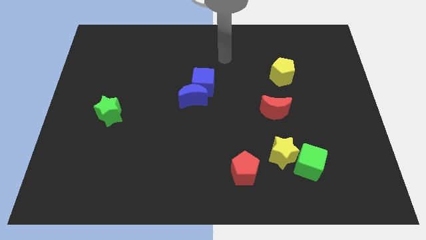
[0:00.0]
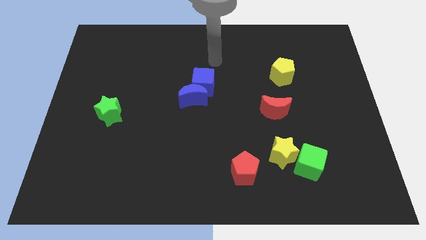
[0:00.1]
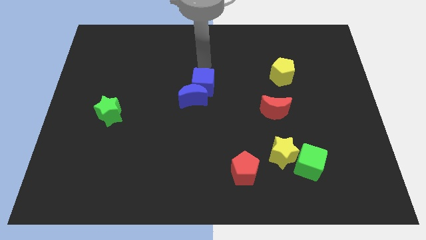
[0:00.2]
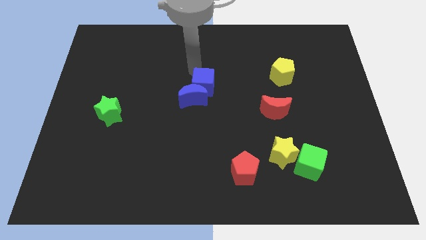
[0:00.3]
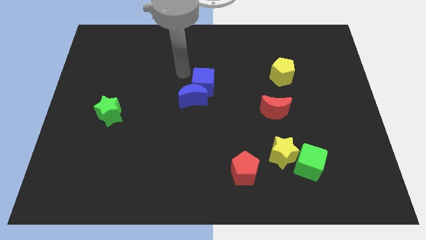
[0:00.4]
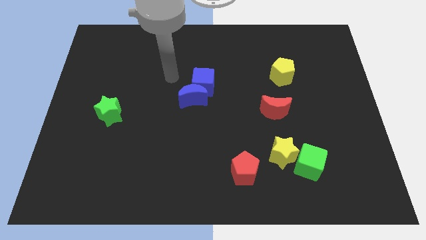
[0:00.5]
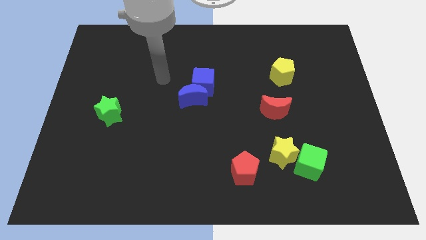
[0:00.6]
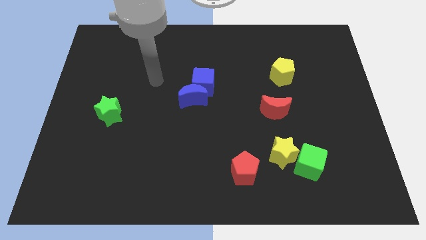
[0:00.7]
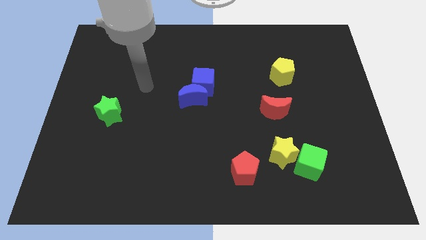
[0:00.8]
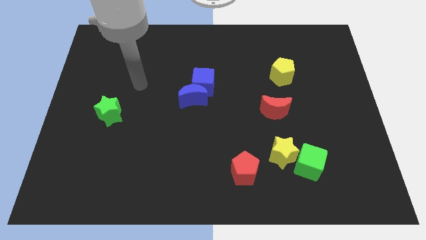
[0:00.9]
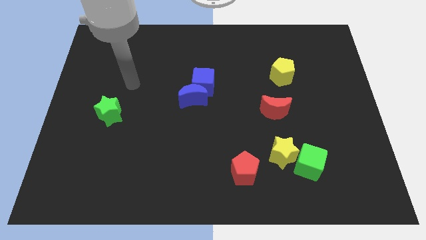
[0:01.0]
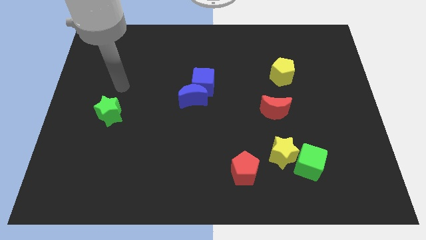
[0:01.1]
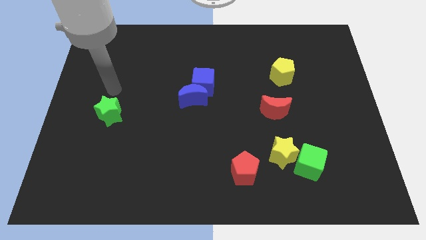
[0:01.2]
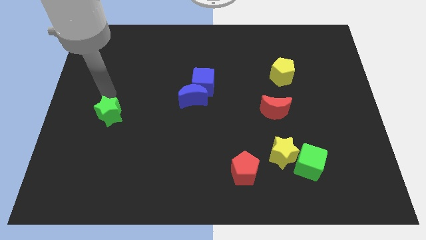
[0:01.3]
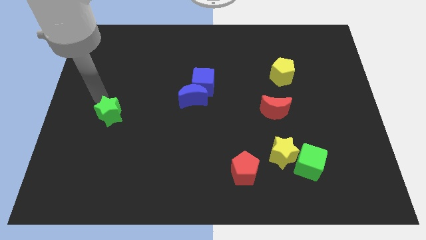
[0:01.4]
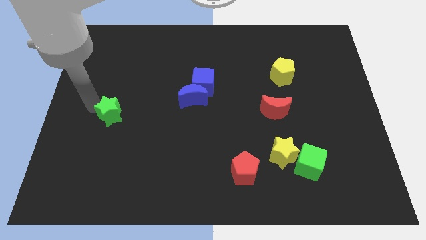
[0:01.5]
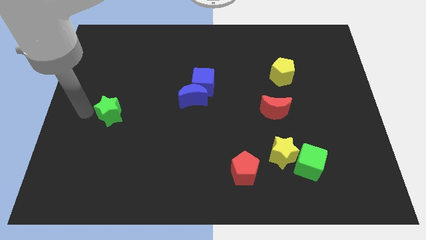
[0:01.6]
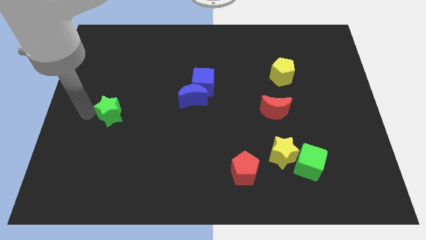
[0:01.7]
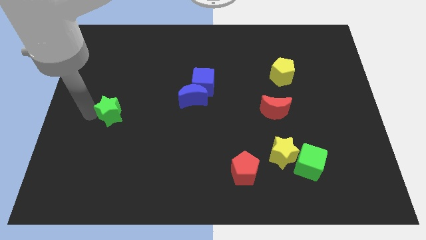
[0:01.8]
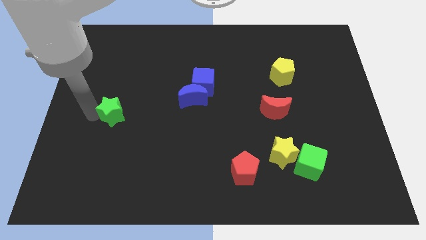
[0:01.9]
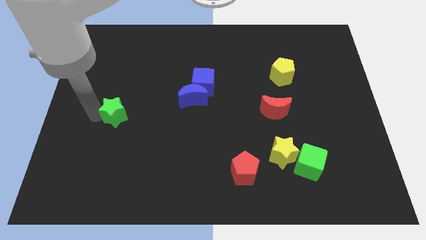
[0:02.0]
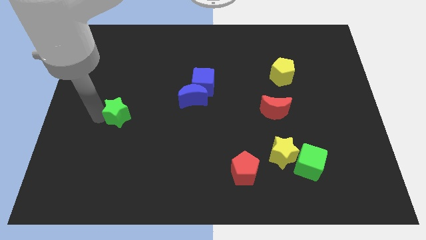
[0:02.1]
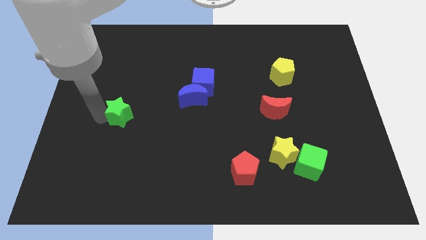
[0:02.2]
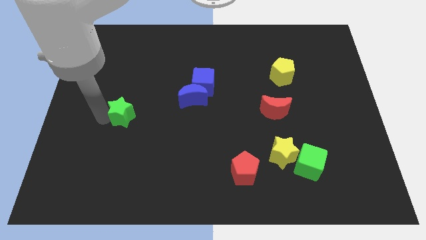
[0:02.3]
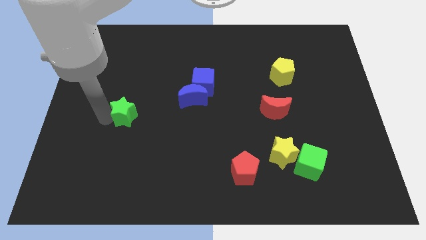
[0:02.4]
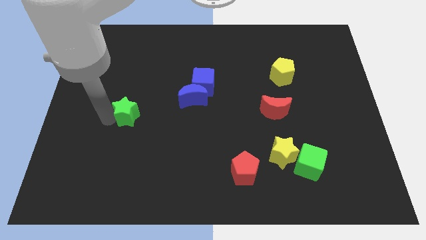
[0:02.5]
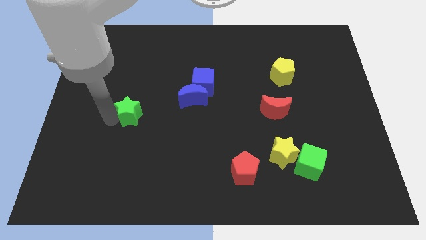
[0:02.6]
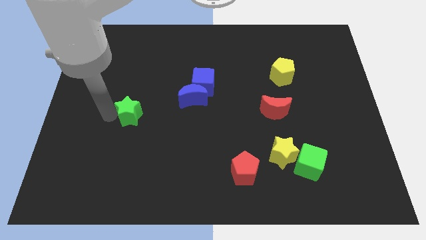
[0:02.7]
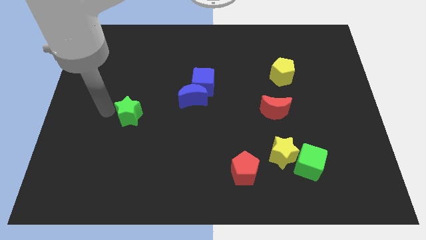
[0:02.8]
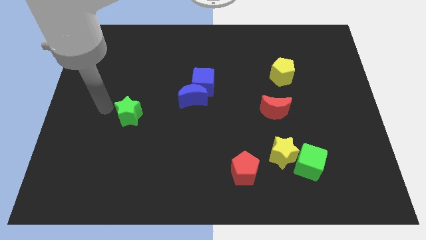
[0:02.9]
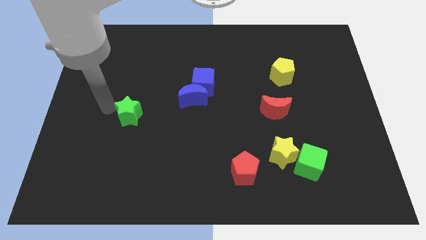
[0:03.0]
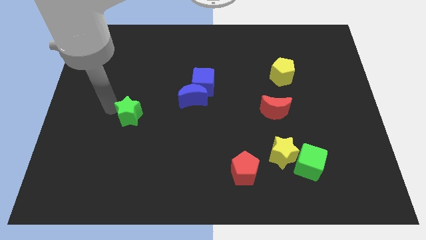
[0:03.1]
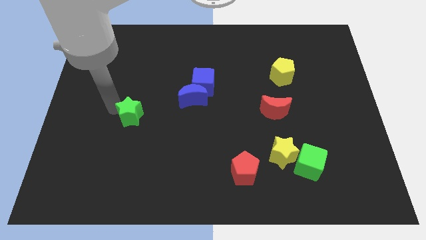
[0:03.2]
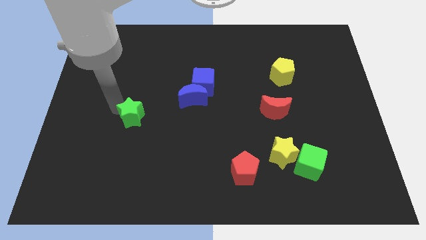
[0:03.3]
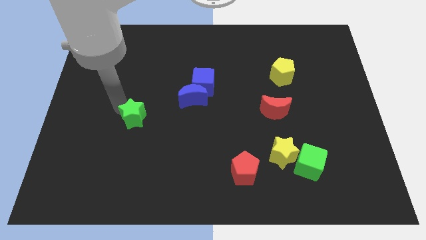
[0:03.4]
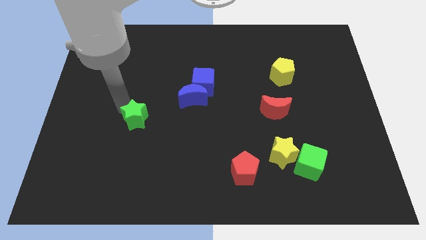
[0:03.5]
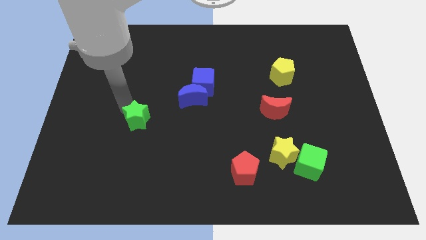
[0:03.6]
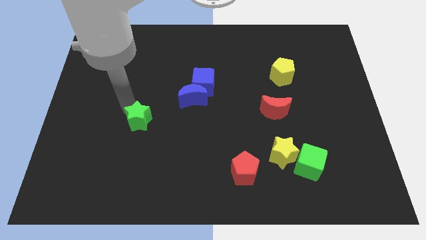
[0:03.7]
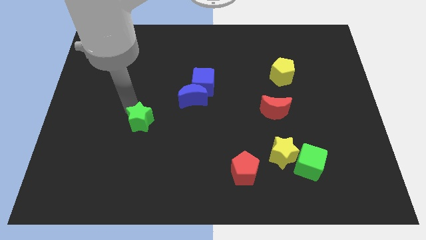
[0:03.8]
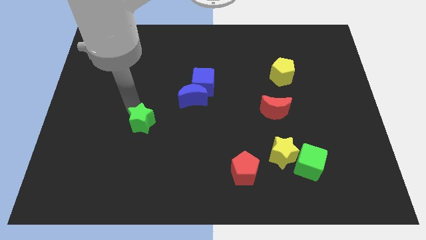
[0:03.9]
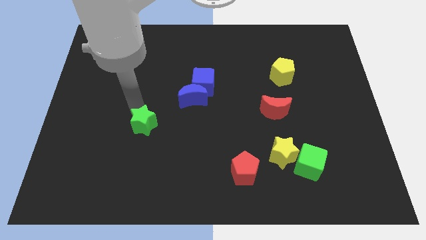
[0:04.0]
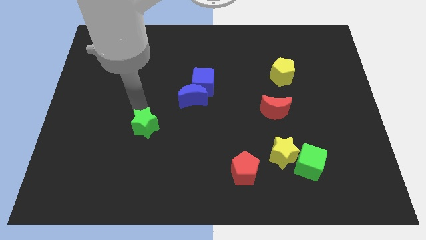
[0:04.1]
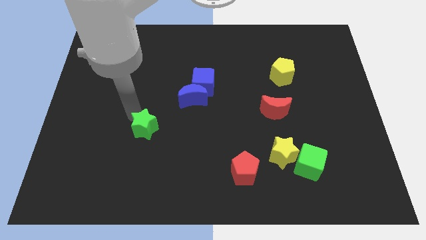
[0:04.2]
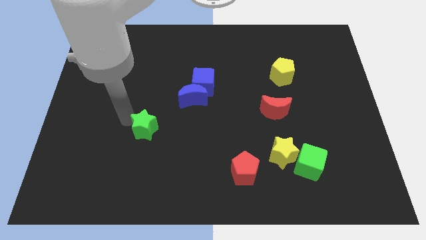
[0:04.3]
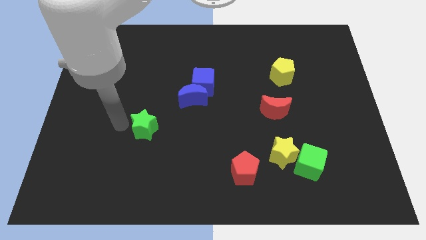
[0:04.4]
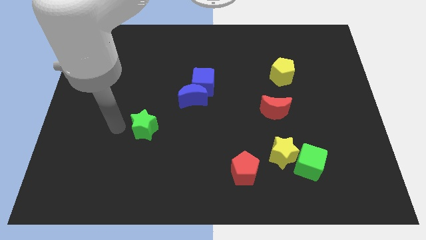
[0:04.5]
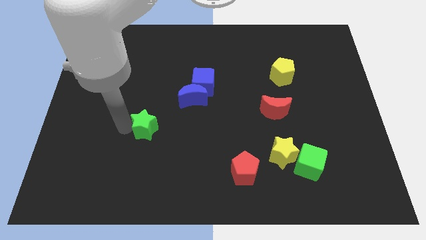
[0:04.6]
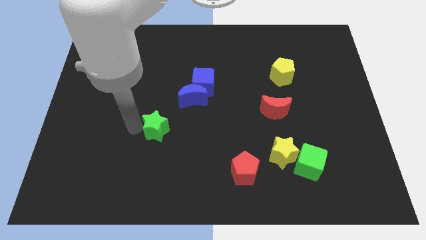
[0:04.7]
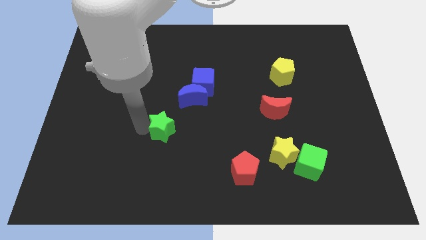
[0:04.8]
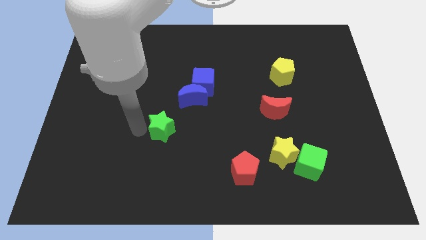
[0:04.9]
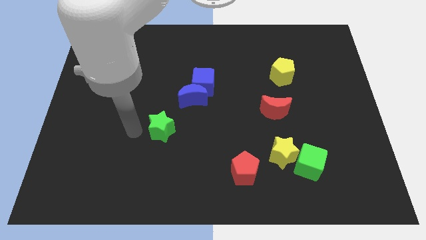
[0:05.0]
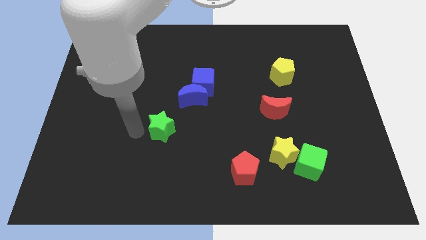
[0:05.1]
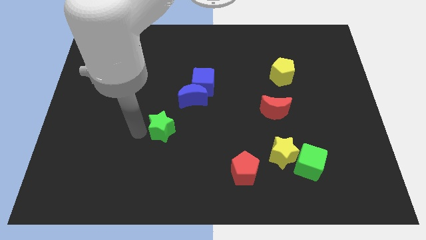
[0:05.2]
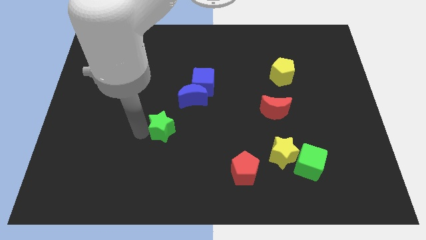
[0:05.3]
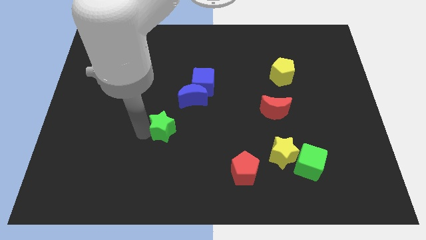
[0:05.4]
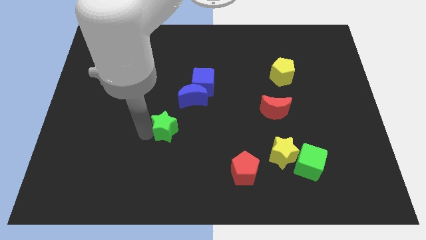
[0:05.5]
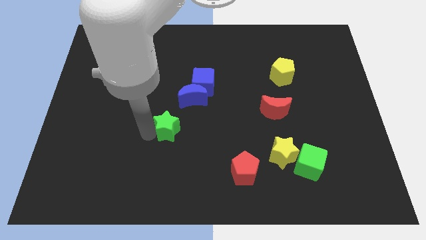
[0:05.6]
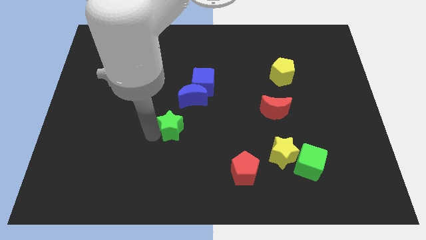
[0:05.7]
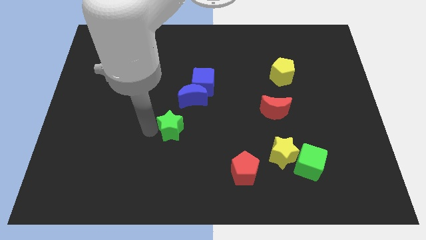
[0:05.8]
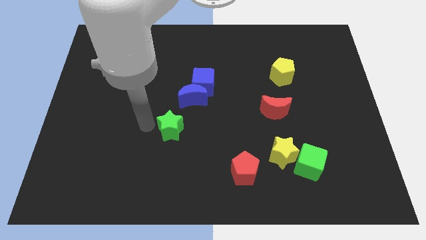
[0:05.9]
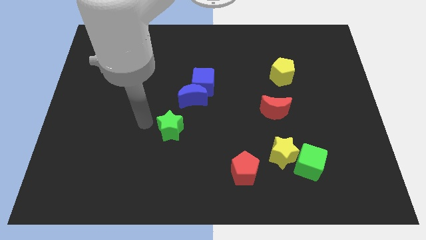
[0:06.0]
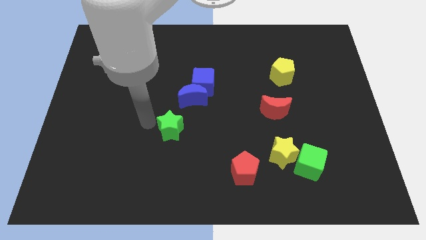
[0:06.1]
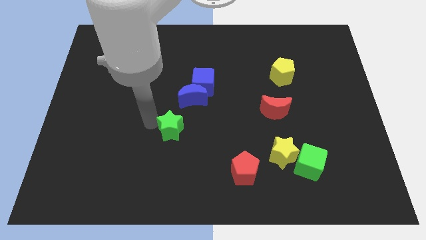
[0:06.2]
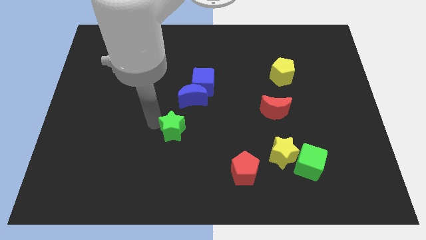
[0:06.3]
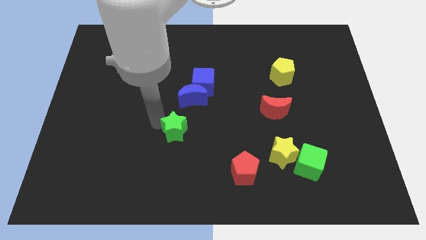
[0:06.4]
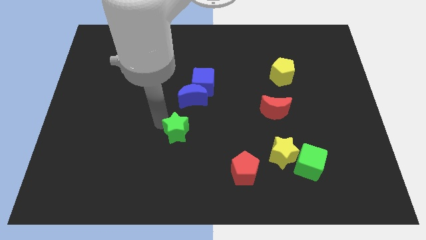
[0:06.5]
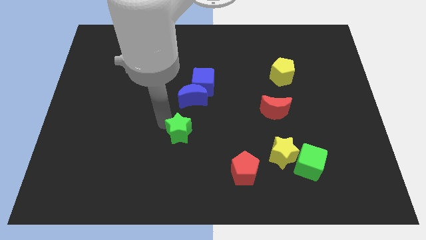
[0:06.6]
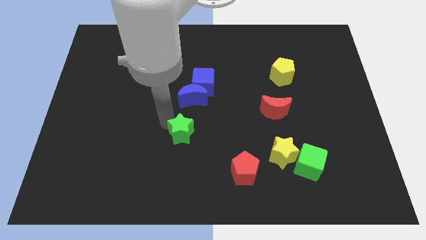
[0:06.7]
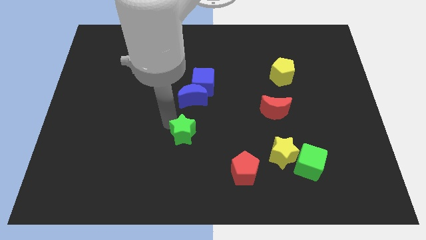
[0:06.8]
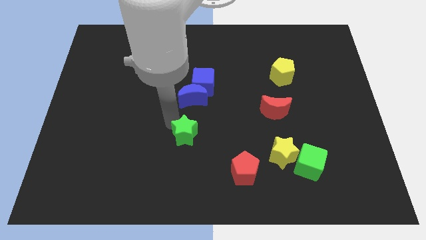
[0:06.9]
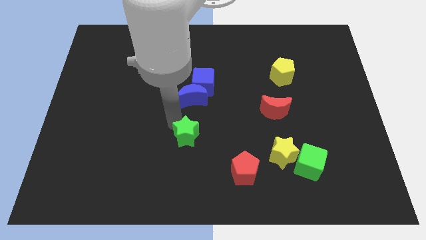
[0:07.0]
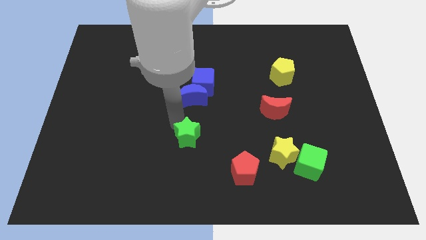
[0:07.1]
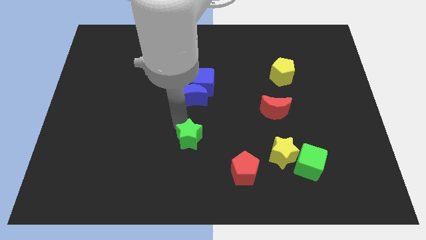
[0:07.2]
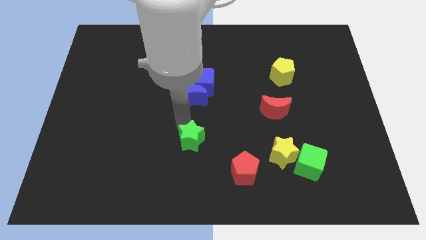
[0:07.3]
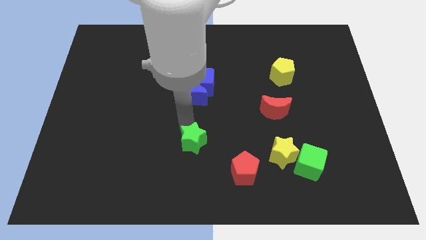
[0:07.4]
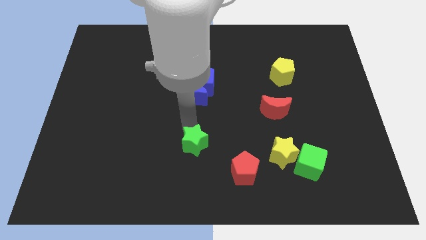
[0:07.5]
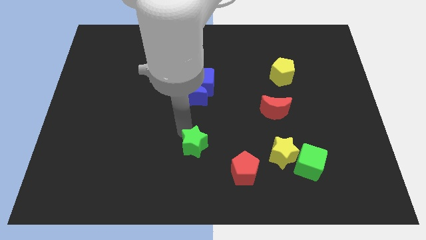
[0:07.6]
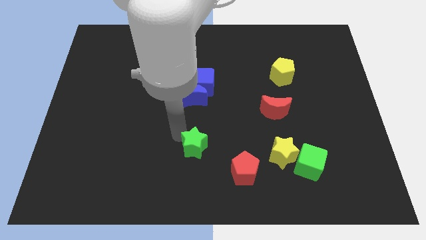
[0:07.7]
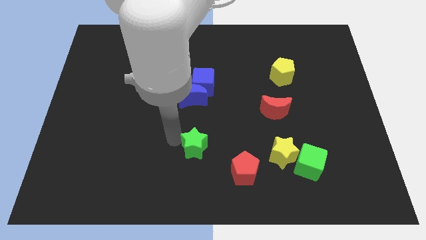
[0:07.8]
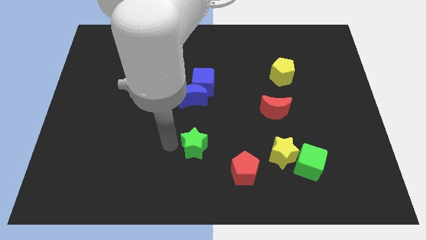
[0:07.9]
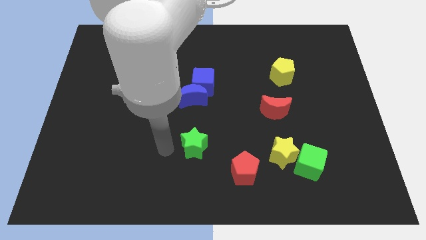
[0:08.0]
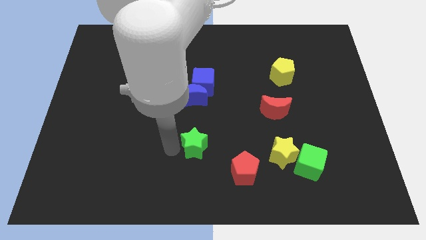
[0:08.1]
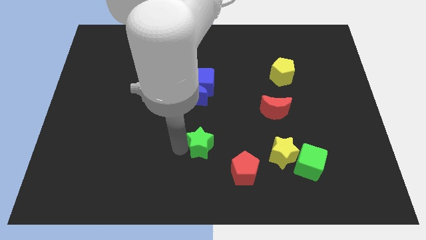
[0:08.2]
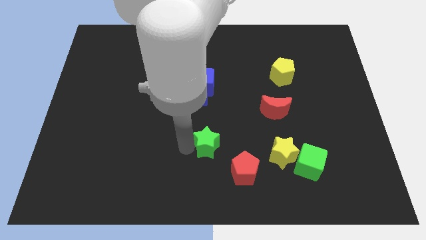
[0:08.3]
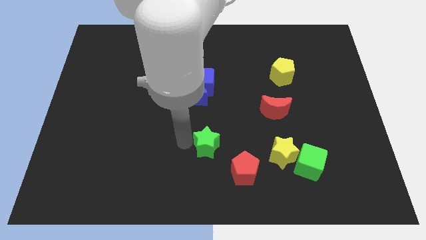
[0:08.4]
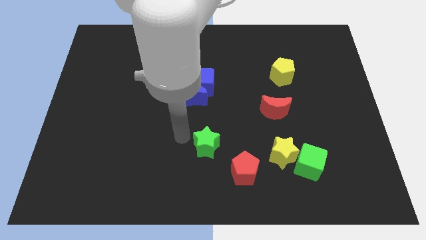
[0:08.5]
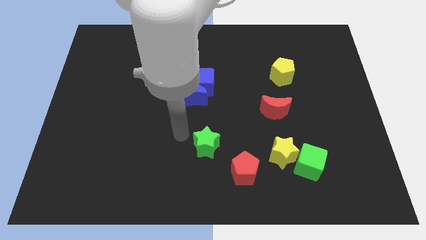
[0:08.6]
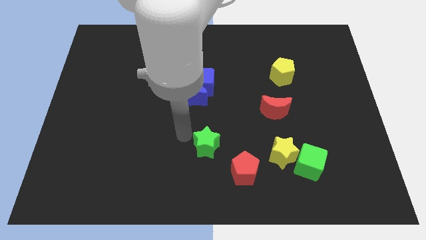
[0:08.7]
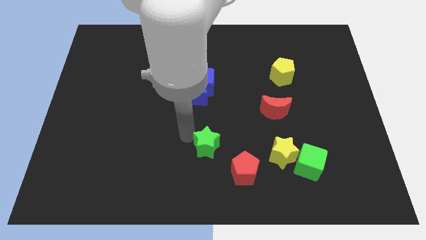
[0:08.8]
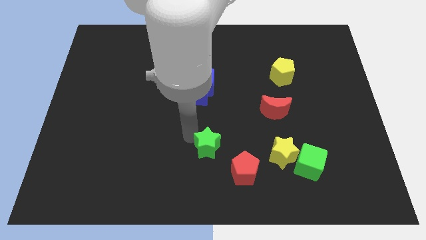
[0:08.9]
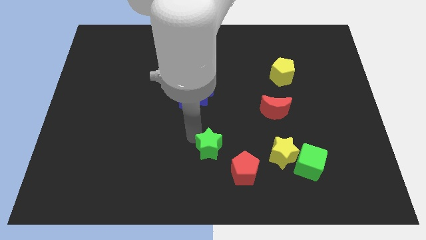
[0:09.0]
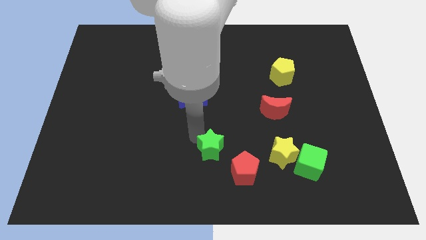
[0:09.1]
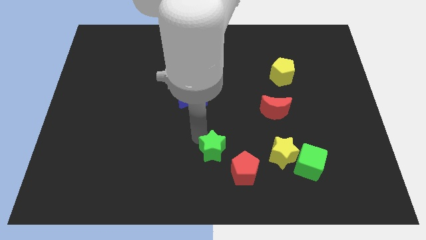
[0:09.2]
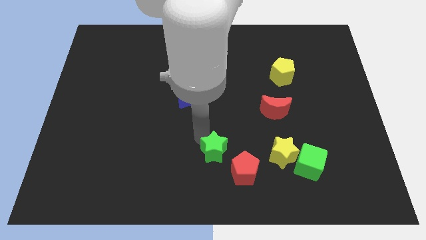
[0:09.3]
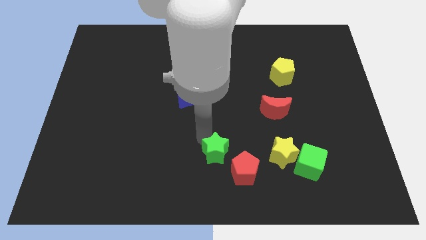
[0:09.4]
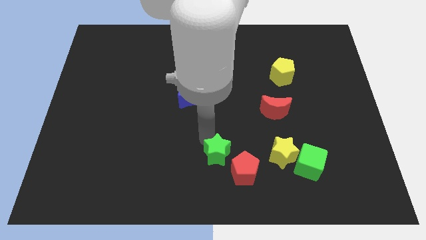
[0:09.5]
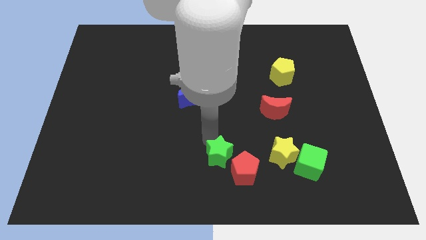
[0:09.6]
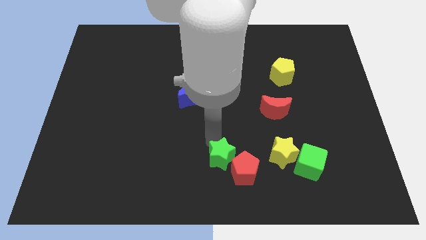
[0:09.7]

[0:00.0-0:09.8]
push the green star towards the red pentagon
